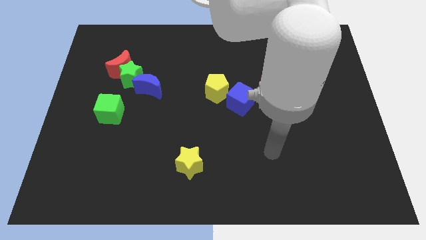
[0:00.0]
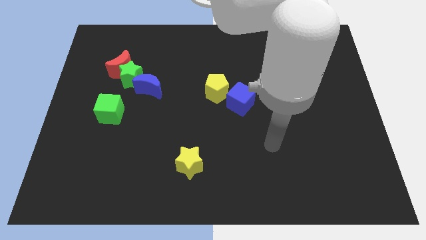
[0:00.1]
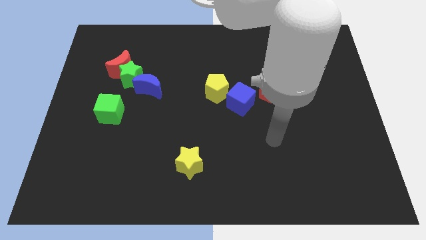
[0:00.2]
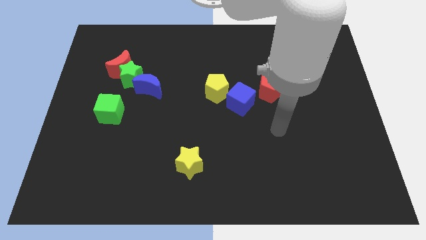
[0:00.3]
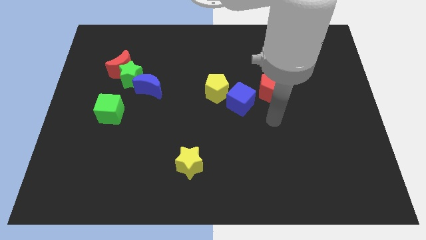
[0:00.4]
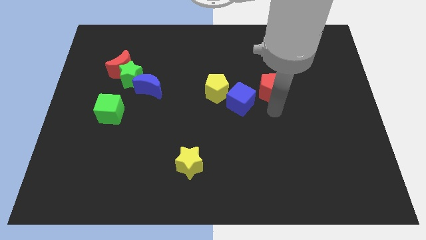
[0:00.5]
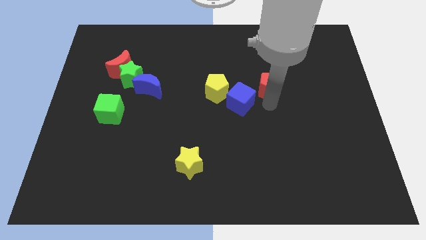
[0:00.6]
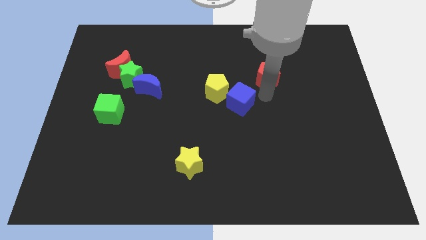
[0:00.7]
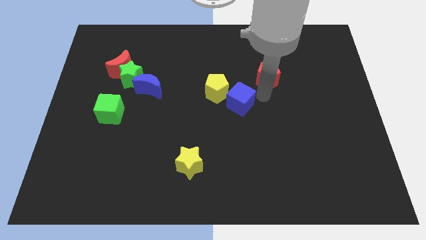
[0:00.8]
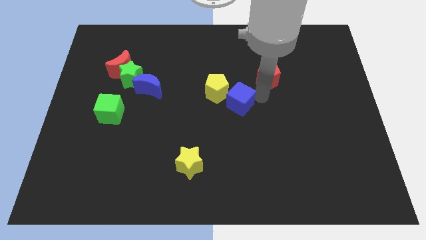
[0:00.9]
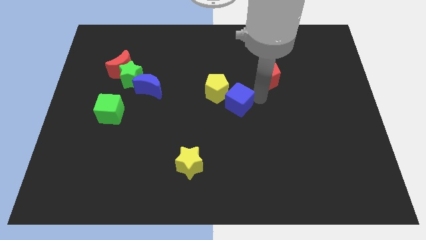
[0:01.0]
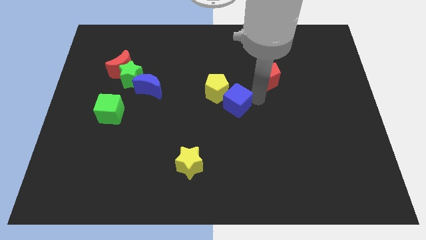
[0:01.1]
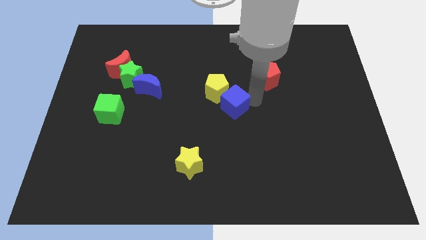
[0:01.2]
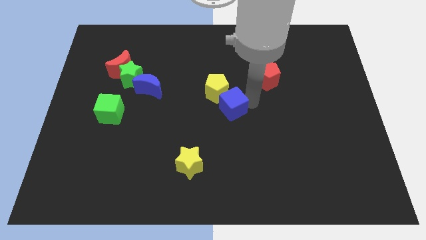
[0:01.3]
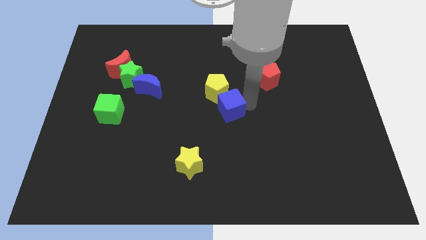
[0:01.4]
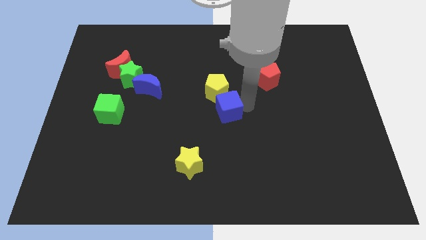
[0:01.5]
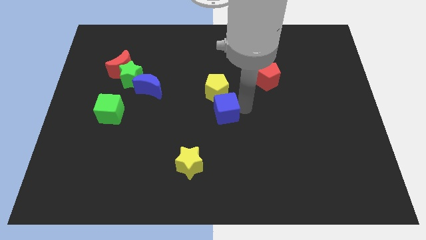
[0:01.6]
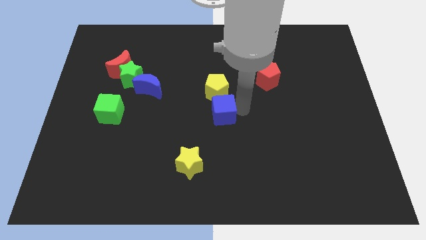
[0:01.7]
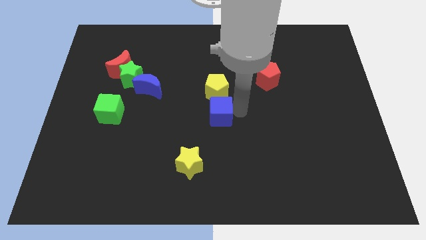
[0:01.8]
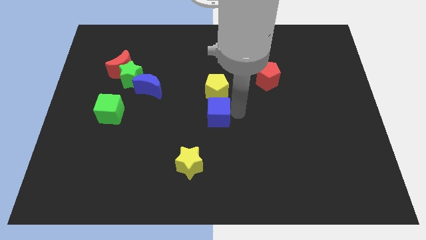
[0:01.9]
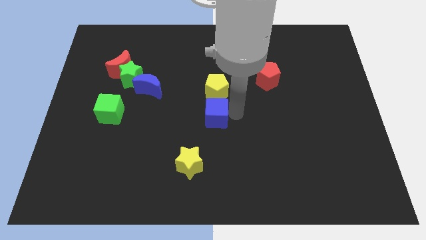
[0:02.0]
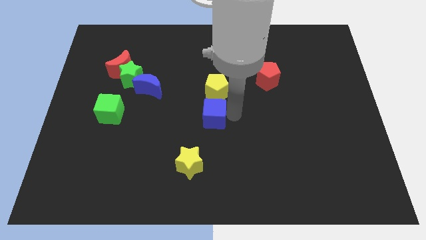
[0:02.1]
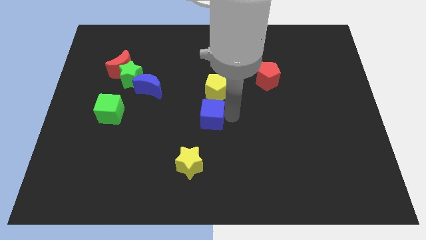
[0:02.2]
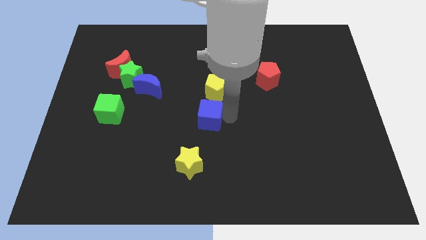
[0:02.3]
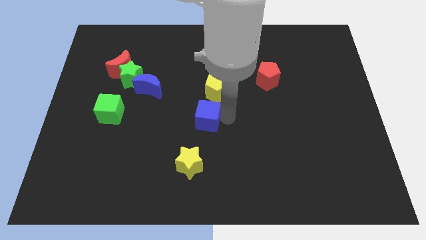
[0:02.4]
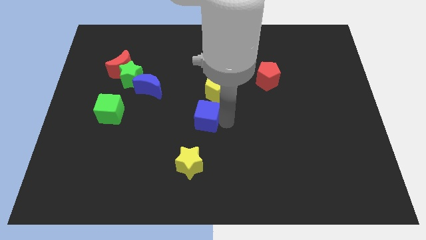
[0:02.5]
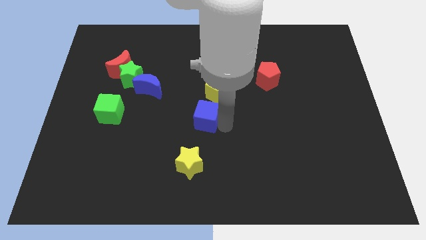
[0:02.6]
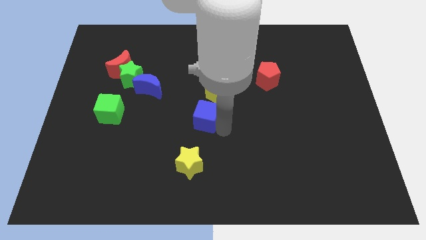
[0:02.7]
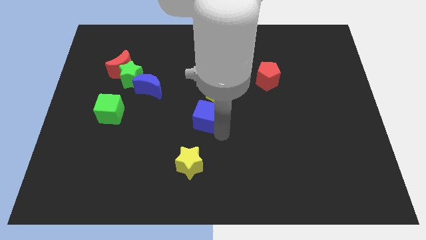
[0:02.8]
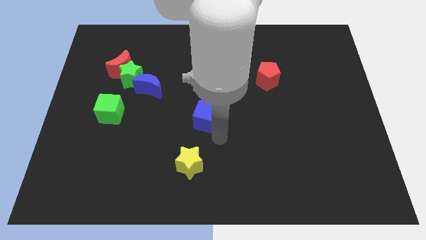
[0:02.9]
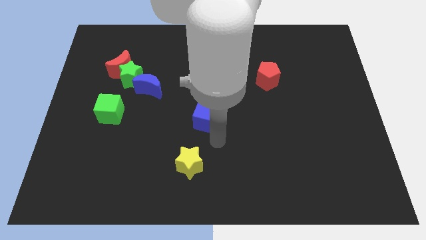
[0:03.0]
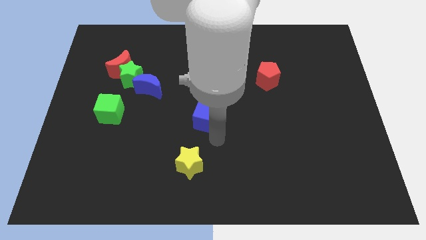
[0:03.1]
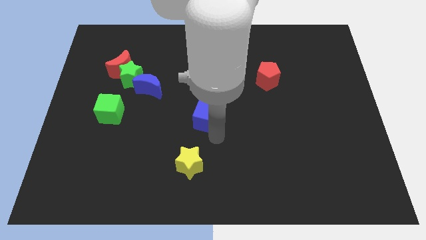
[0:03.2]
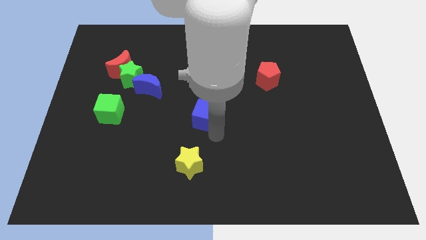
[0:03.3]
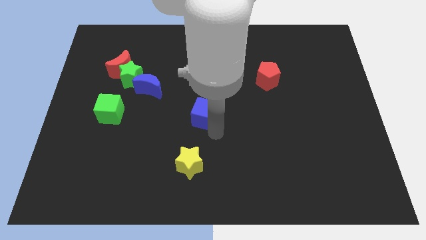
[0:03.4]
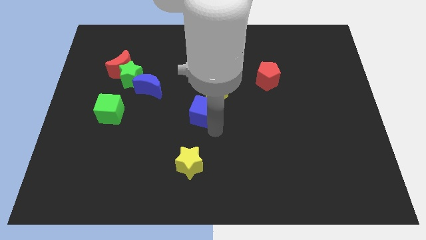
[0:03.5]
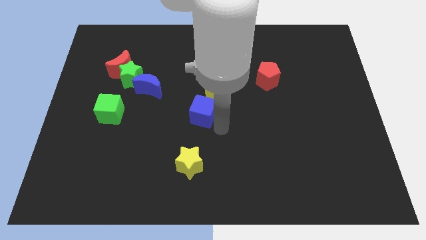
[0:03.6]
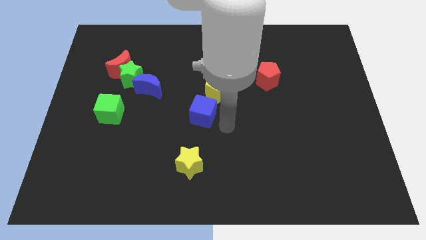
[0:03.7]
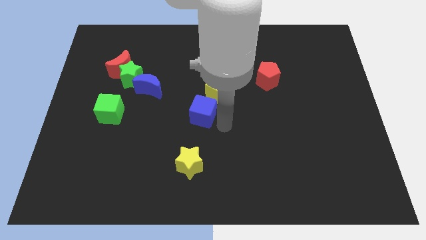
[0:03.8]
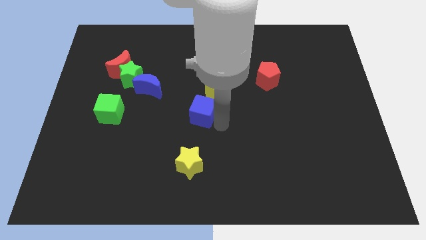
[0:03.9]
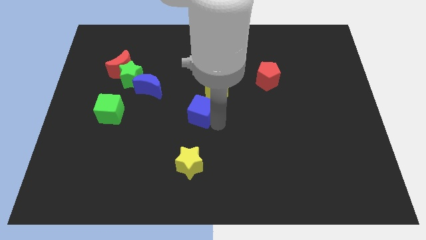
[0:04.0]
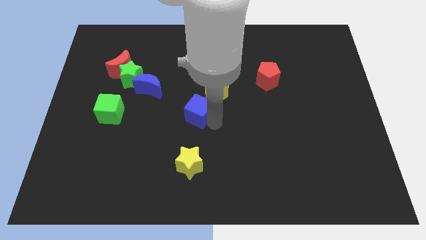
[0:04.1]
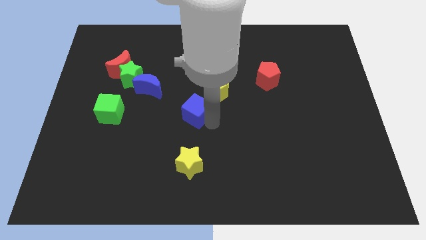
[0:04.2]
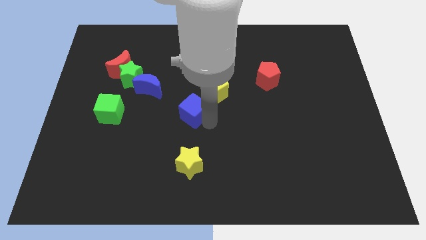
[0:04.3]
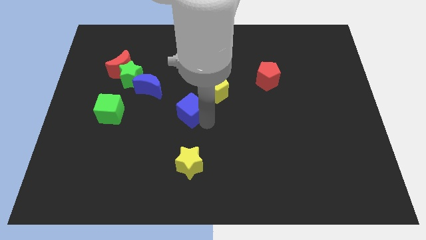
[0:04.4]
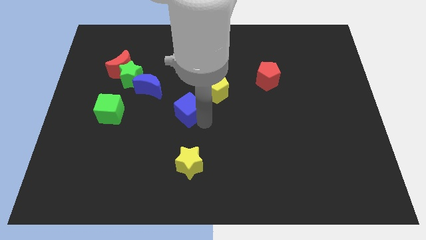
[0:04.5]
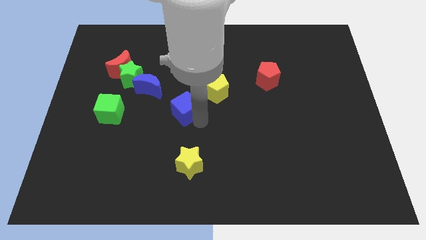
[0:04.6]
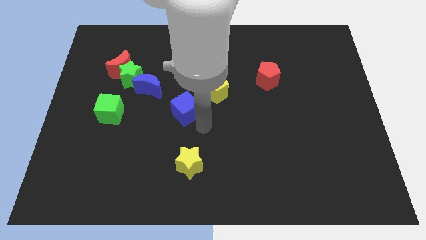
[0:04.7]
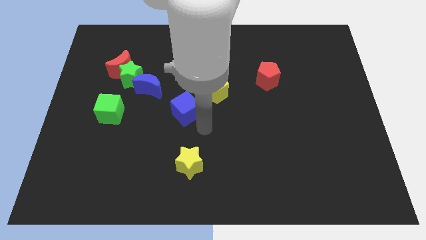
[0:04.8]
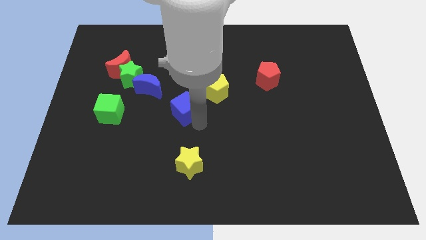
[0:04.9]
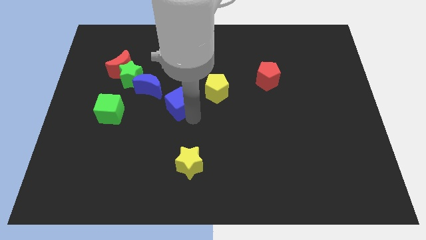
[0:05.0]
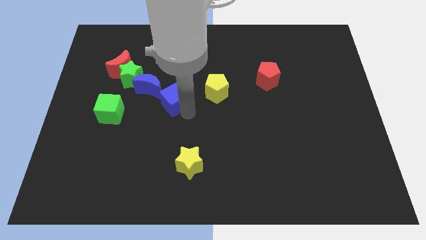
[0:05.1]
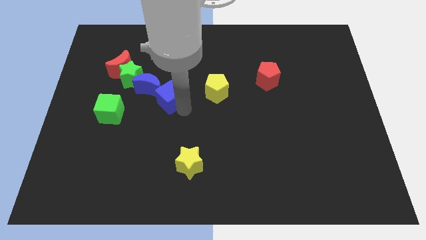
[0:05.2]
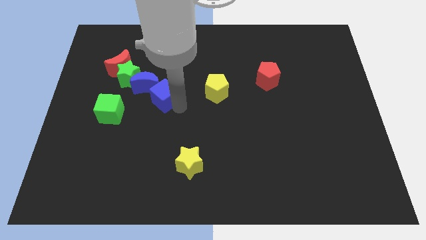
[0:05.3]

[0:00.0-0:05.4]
move the blue cube close to the blue moon

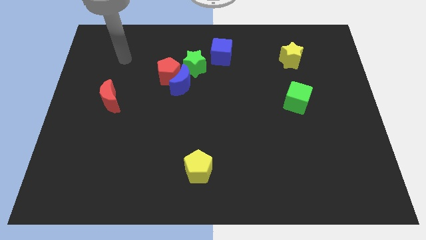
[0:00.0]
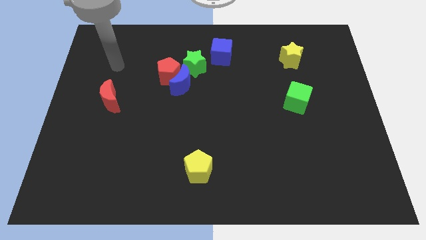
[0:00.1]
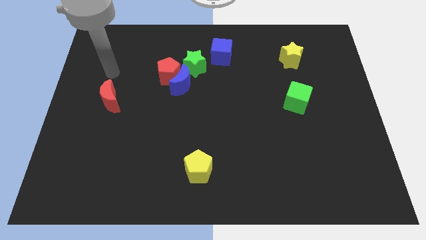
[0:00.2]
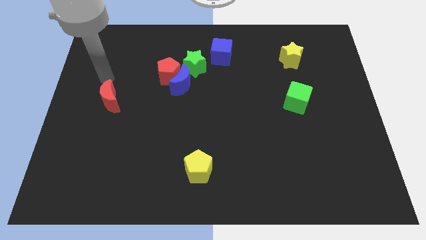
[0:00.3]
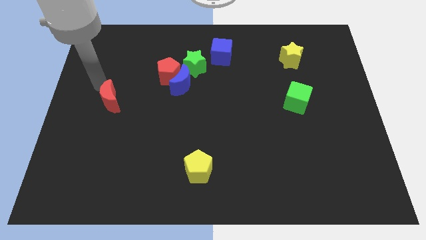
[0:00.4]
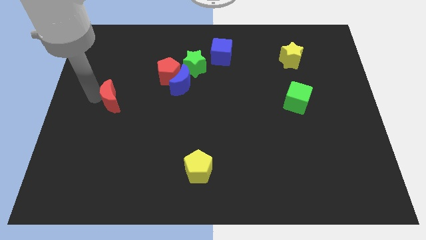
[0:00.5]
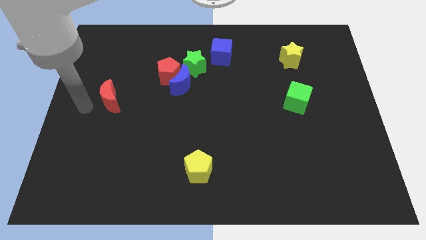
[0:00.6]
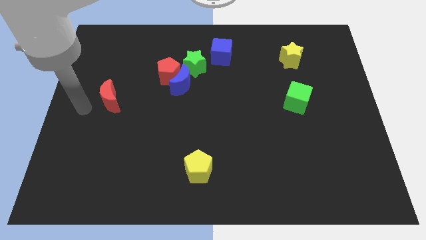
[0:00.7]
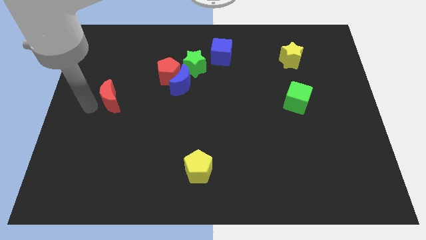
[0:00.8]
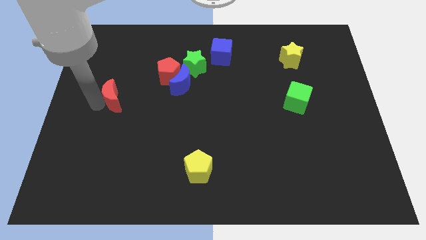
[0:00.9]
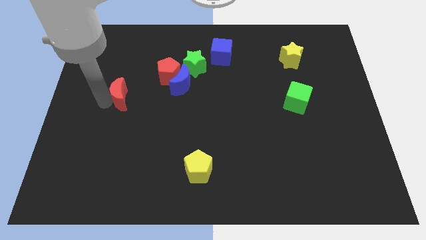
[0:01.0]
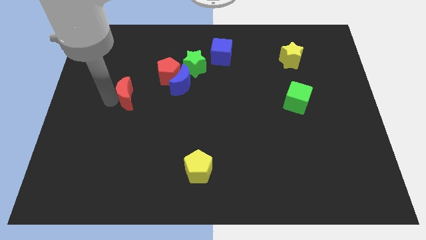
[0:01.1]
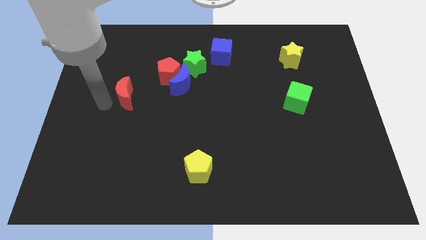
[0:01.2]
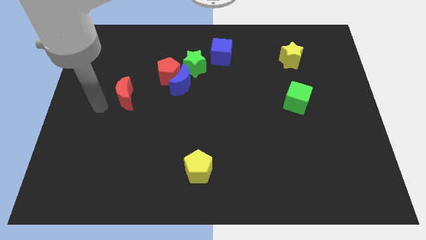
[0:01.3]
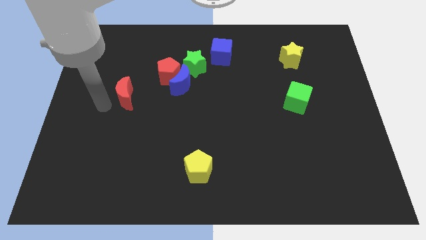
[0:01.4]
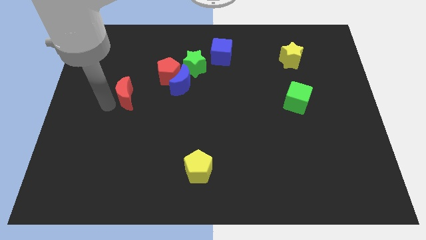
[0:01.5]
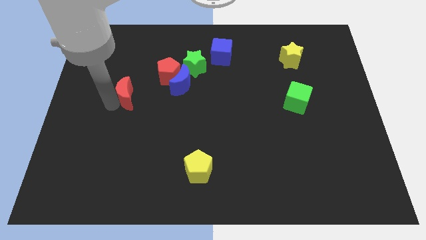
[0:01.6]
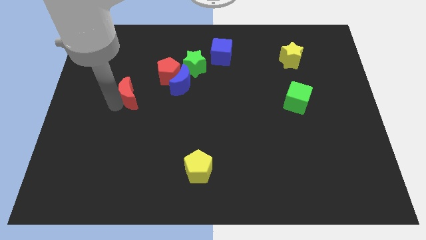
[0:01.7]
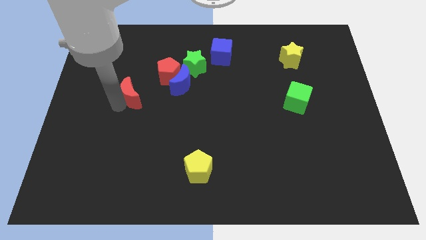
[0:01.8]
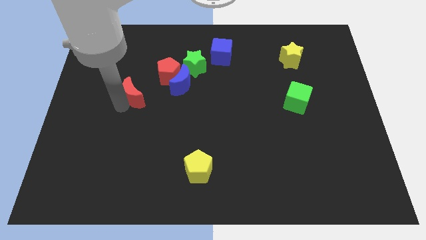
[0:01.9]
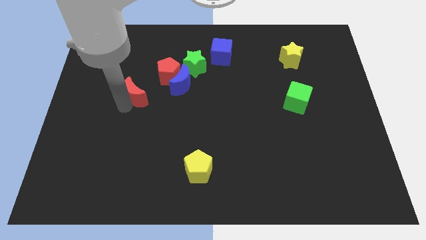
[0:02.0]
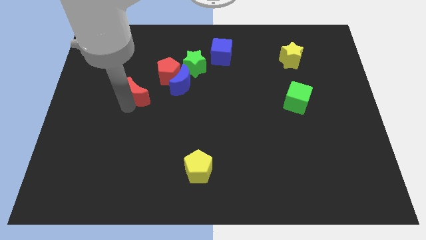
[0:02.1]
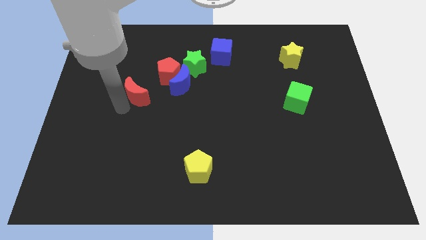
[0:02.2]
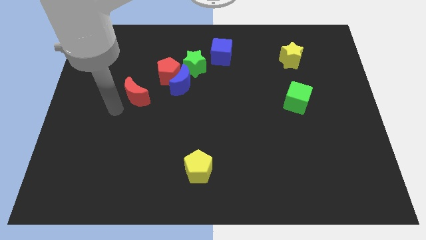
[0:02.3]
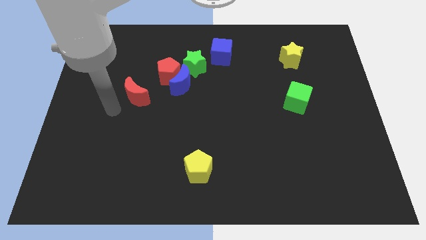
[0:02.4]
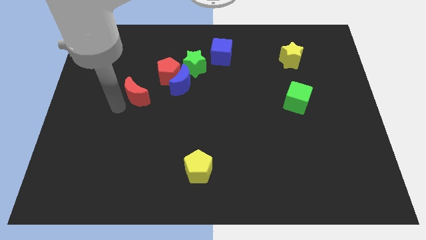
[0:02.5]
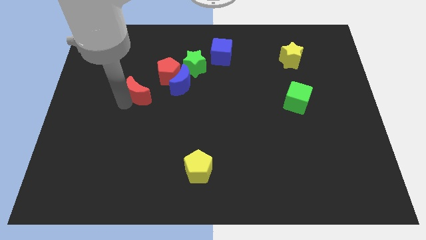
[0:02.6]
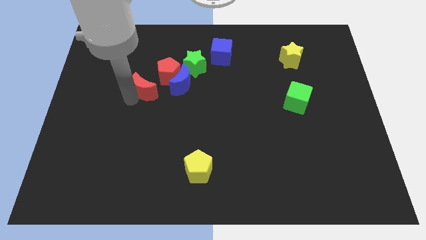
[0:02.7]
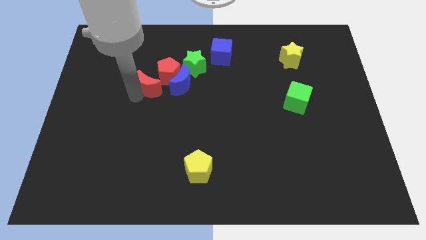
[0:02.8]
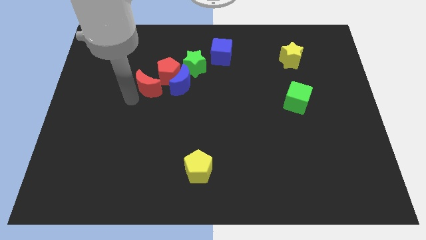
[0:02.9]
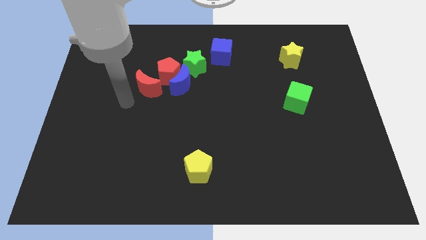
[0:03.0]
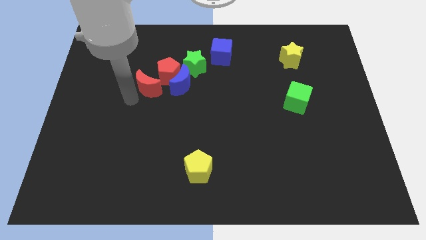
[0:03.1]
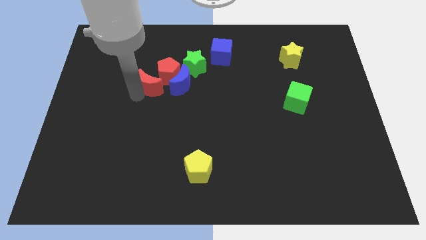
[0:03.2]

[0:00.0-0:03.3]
slide the red moon next to the red pentagon
